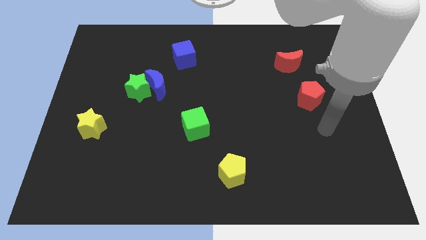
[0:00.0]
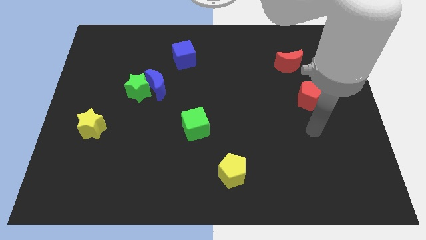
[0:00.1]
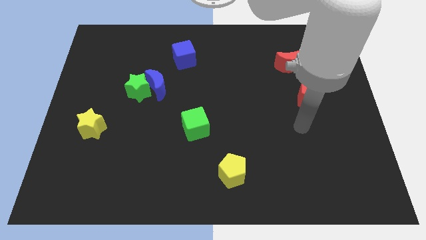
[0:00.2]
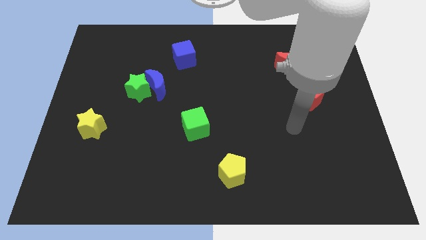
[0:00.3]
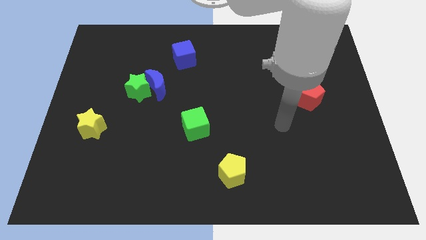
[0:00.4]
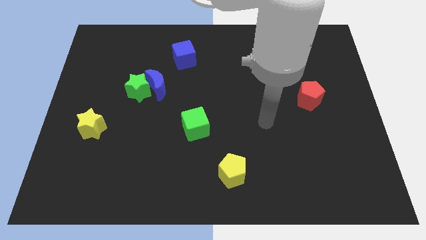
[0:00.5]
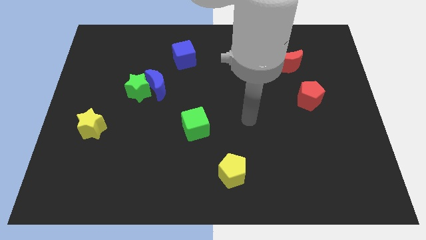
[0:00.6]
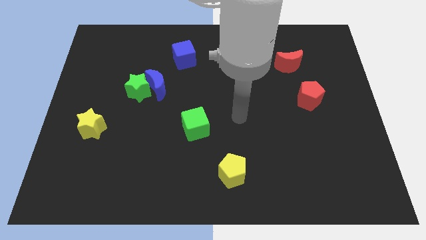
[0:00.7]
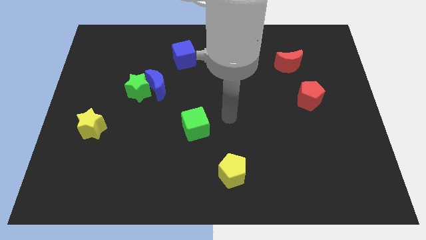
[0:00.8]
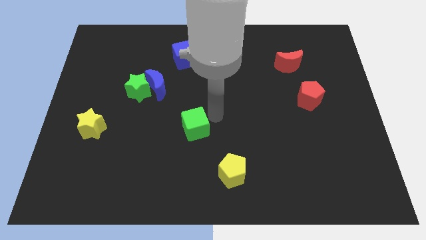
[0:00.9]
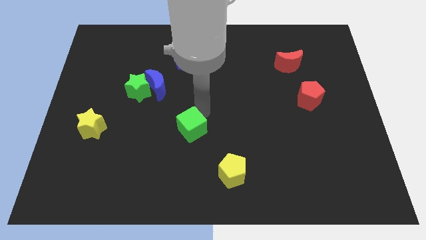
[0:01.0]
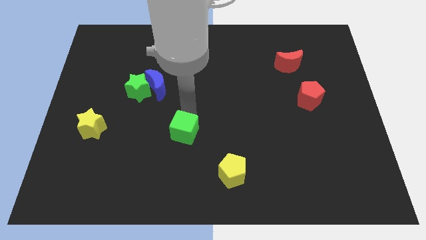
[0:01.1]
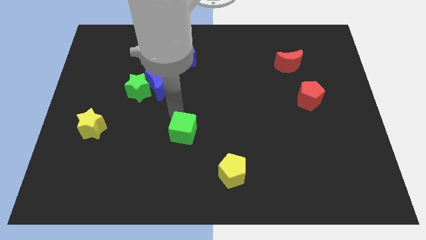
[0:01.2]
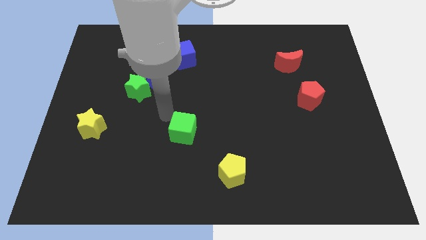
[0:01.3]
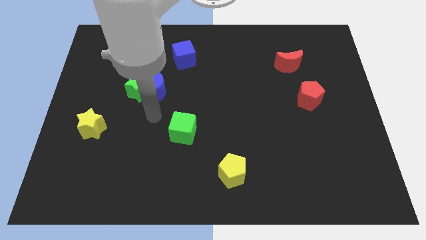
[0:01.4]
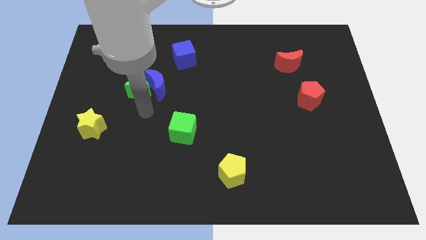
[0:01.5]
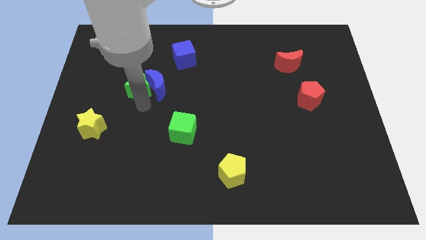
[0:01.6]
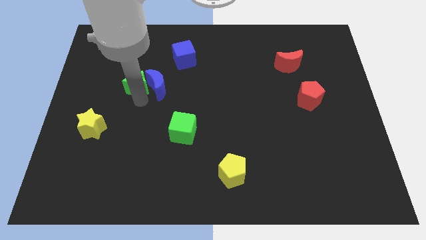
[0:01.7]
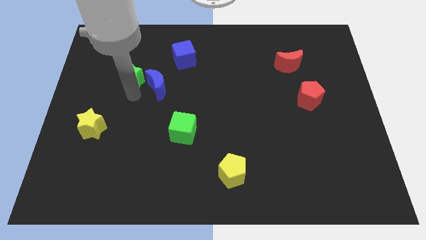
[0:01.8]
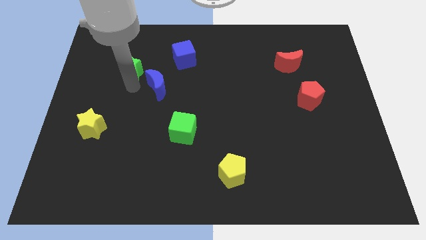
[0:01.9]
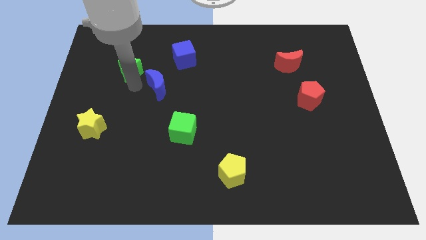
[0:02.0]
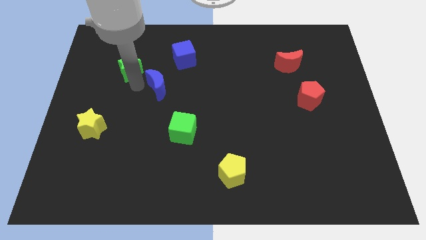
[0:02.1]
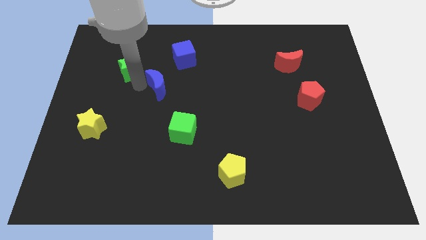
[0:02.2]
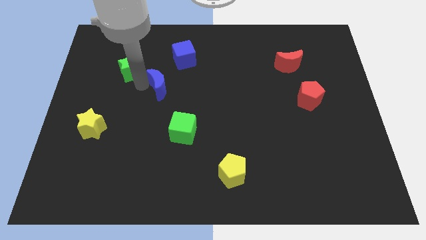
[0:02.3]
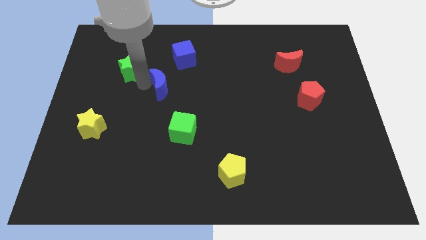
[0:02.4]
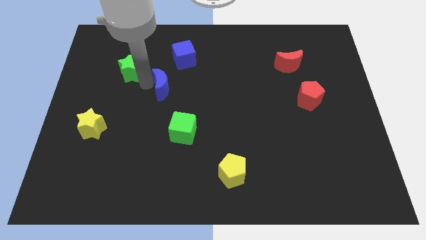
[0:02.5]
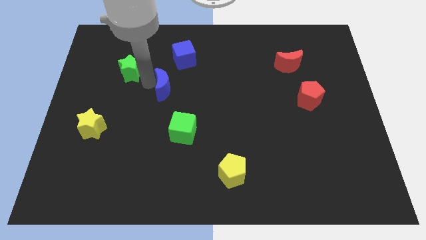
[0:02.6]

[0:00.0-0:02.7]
move the blue moon away from the green star

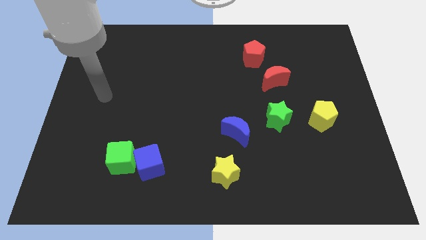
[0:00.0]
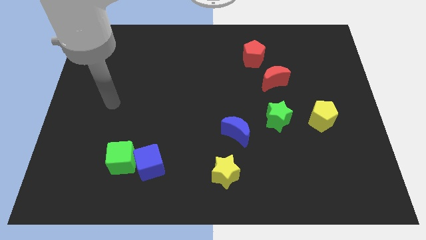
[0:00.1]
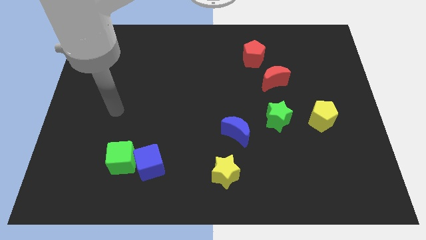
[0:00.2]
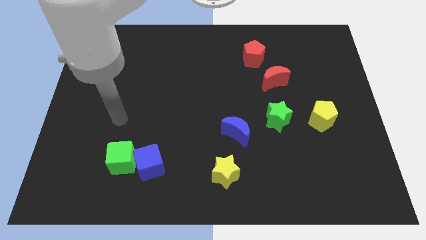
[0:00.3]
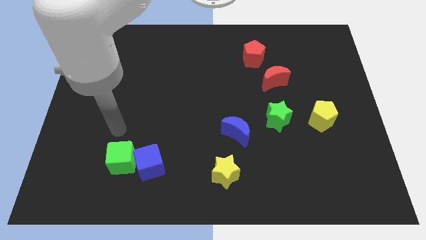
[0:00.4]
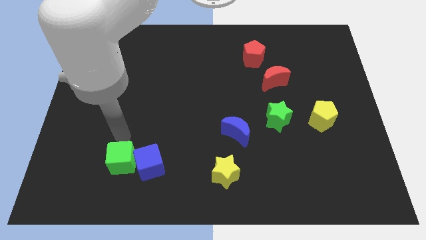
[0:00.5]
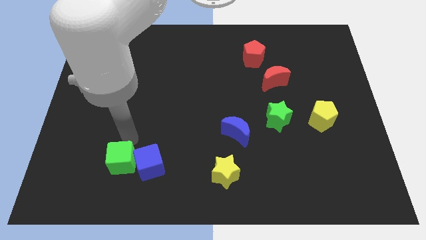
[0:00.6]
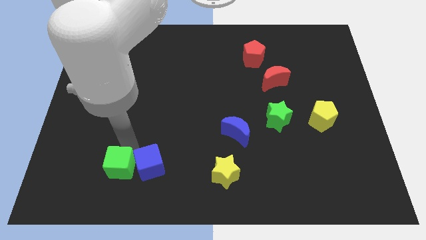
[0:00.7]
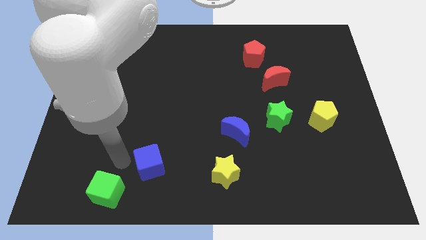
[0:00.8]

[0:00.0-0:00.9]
pull the blue cube apart from the green cube

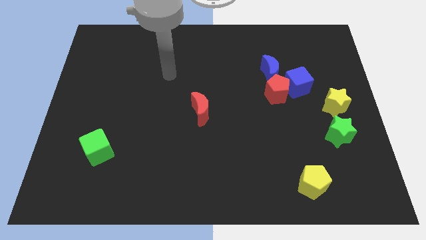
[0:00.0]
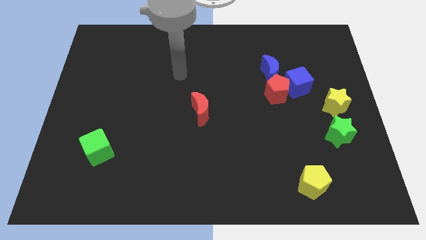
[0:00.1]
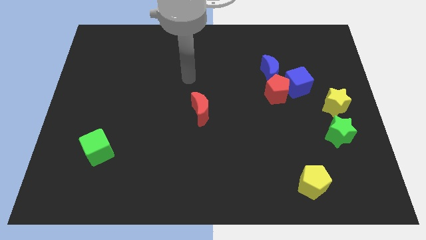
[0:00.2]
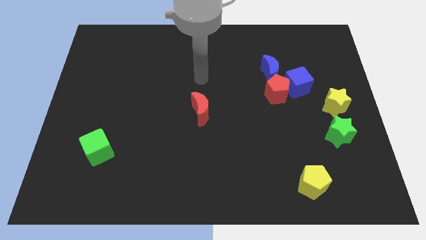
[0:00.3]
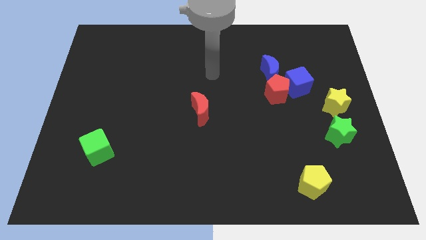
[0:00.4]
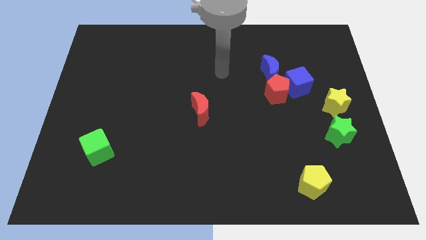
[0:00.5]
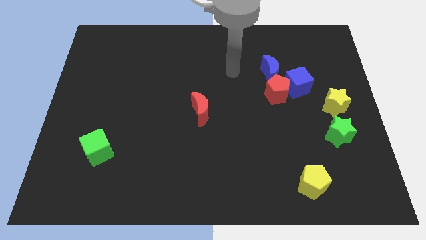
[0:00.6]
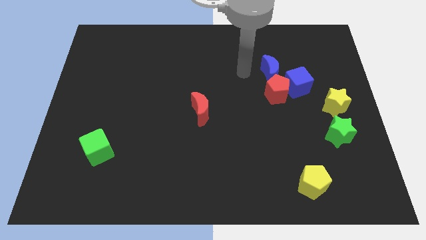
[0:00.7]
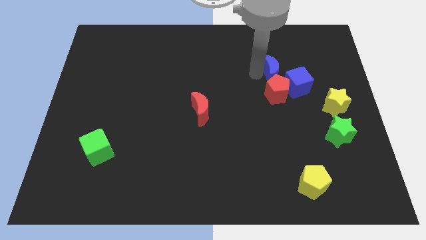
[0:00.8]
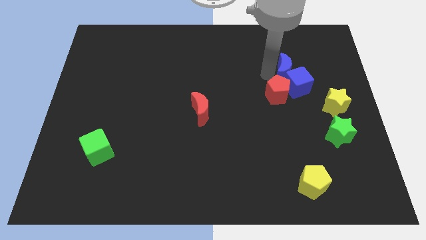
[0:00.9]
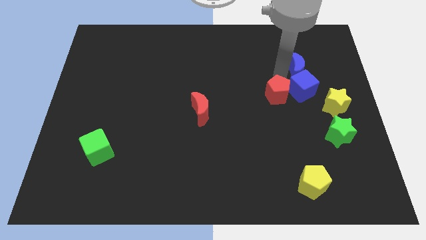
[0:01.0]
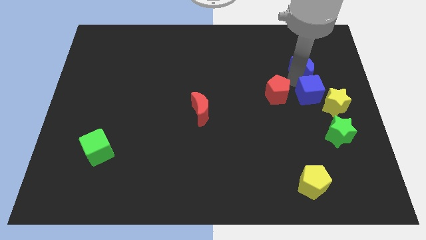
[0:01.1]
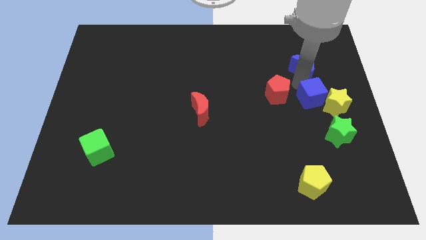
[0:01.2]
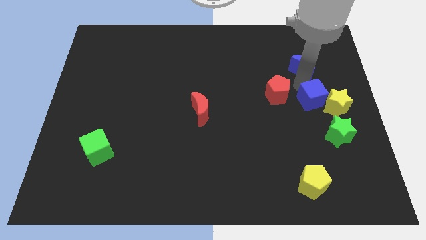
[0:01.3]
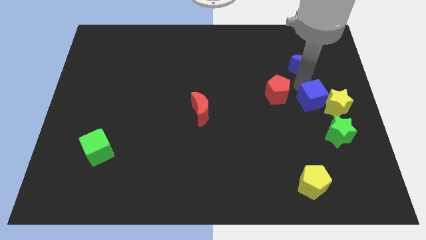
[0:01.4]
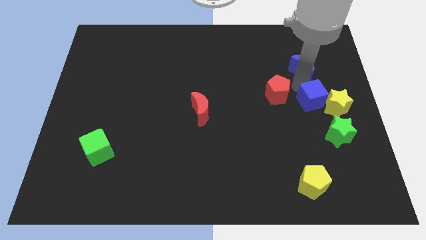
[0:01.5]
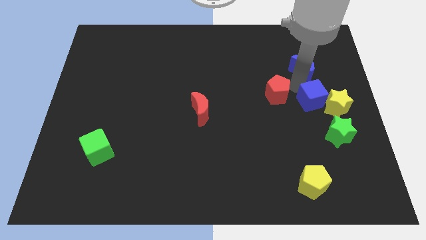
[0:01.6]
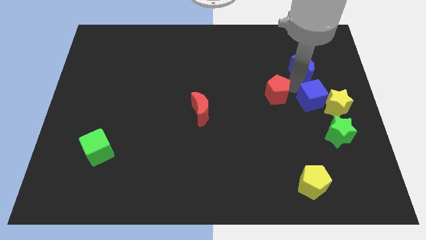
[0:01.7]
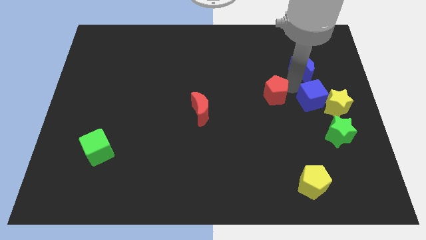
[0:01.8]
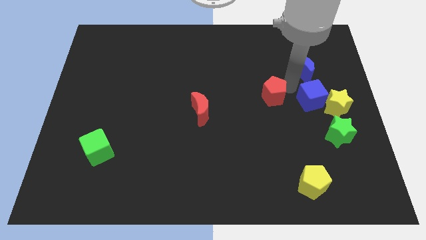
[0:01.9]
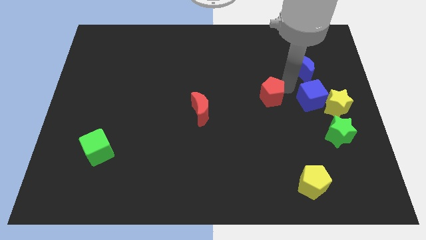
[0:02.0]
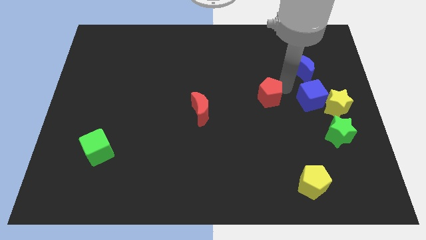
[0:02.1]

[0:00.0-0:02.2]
move the red pentagon away from the blue cube and blue moon

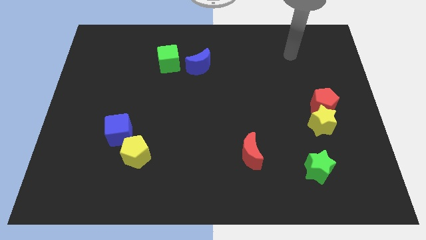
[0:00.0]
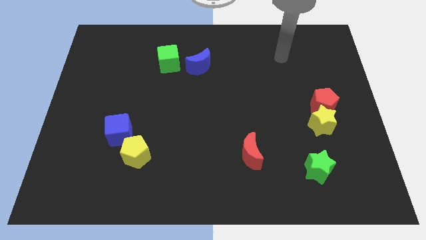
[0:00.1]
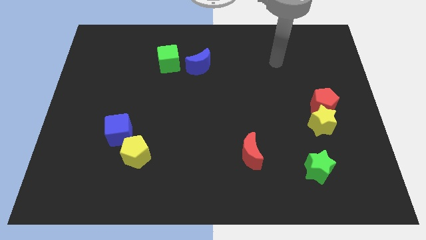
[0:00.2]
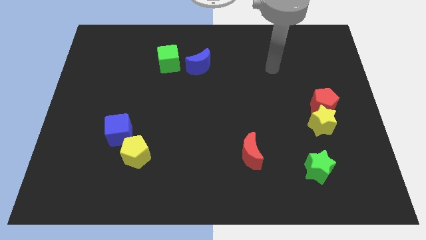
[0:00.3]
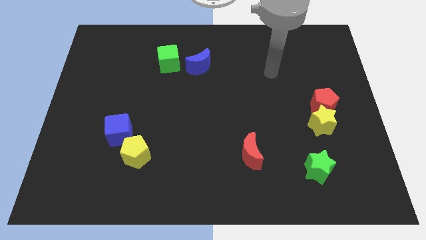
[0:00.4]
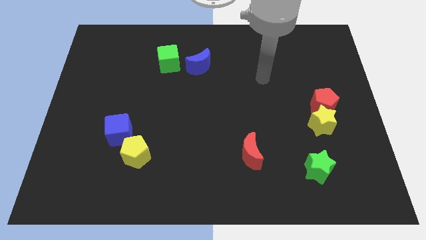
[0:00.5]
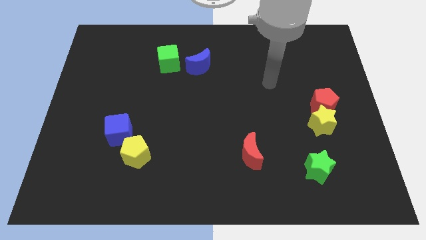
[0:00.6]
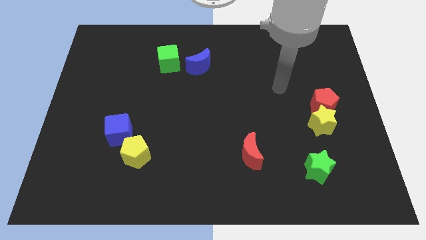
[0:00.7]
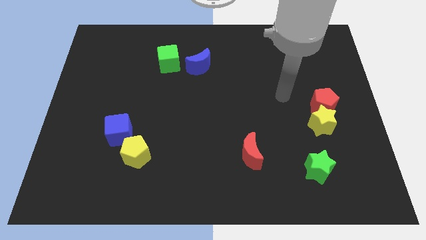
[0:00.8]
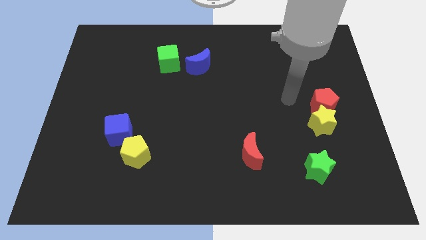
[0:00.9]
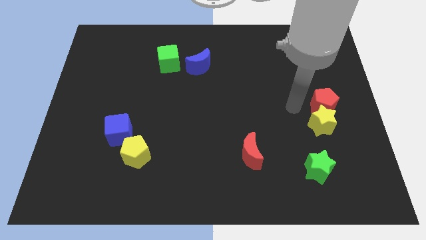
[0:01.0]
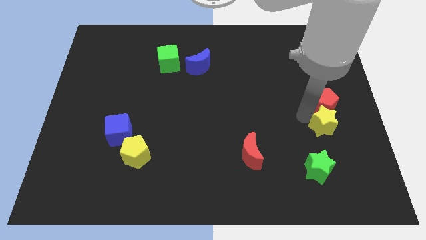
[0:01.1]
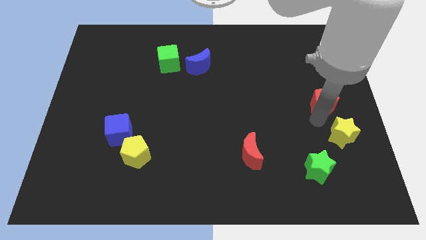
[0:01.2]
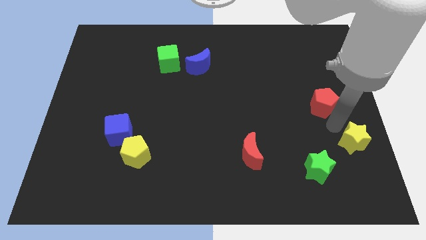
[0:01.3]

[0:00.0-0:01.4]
pull the red pentagon apart from the yellow star

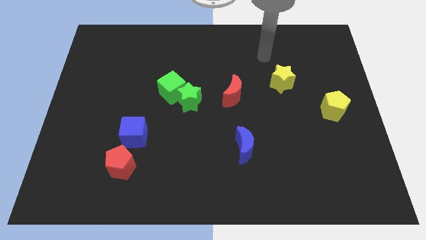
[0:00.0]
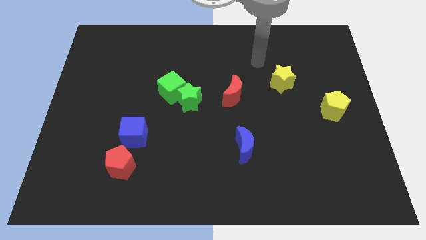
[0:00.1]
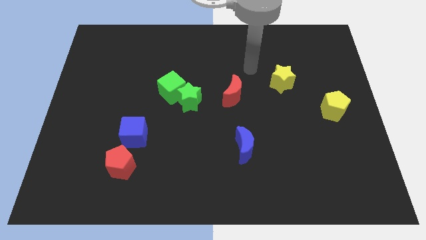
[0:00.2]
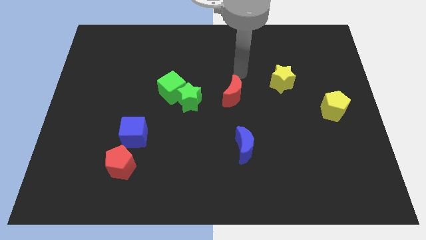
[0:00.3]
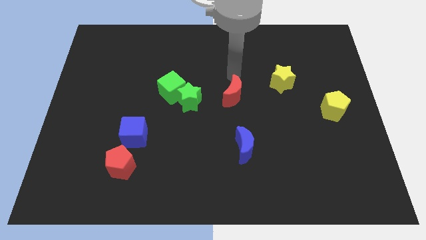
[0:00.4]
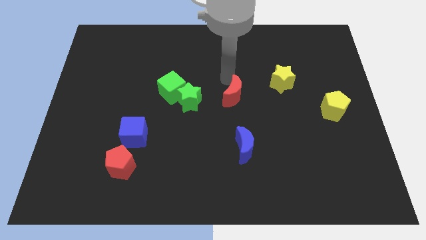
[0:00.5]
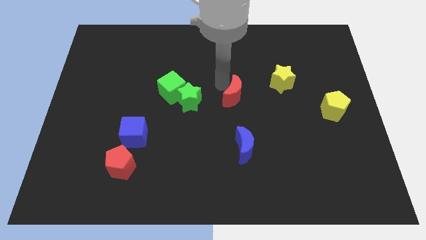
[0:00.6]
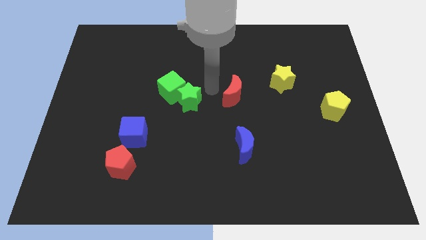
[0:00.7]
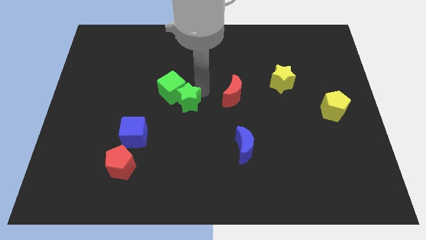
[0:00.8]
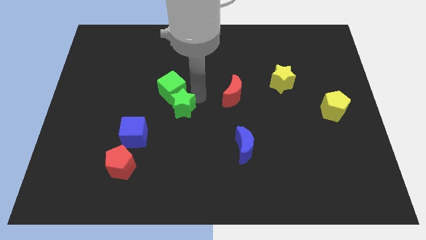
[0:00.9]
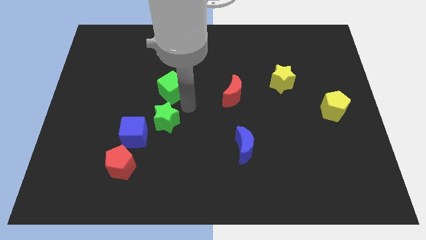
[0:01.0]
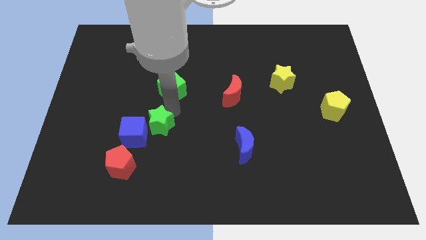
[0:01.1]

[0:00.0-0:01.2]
move the green cube away from the green star

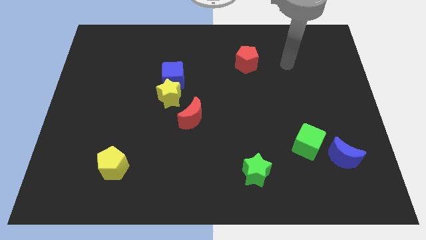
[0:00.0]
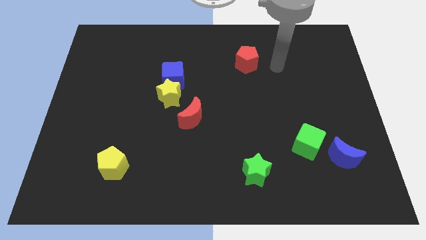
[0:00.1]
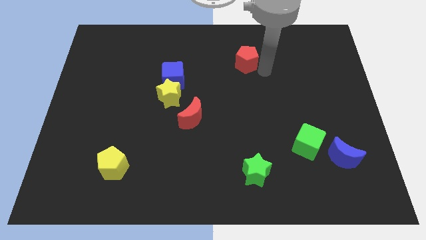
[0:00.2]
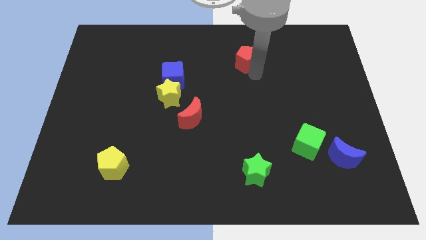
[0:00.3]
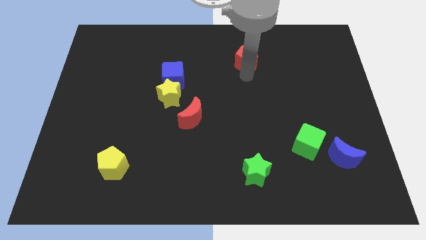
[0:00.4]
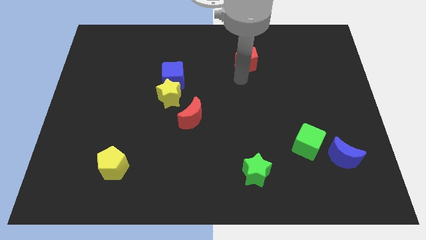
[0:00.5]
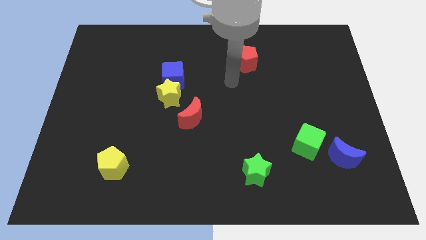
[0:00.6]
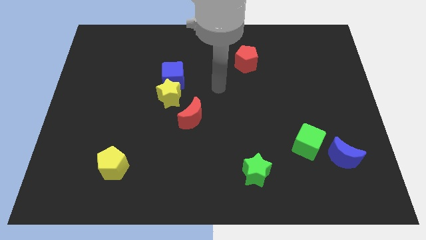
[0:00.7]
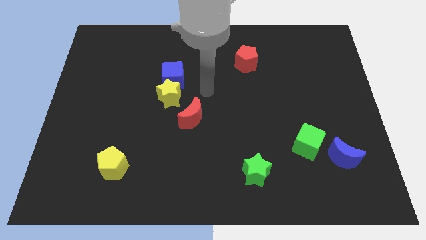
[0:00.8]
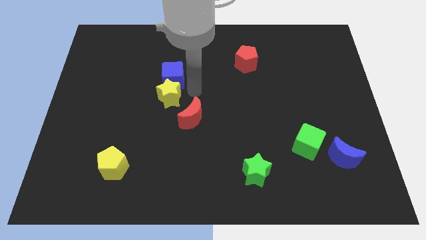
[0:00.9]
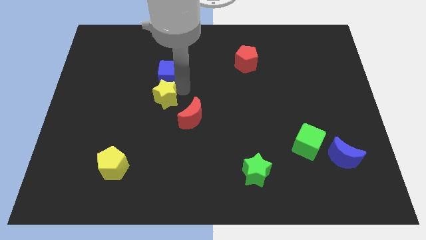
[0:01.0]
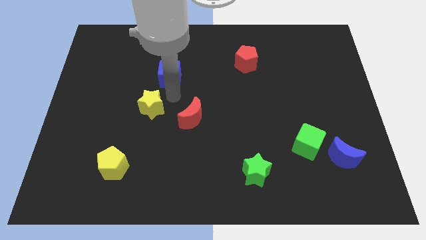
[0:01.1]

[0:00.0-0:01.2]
move the blue cube away from the yellow star
